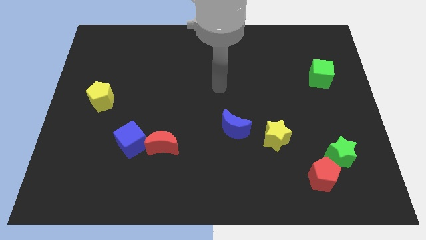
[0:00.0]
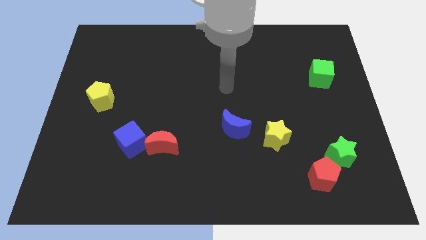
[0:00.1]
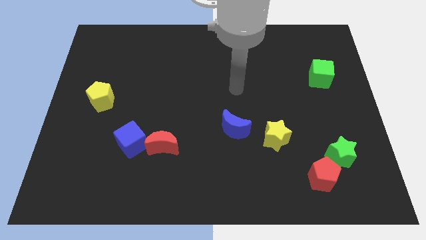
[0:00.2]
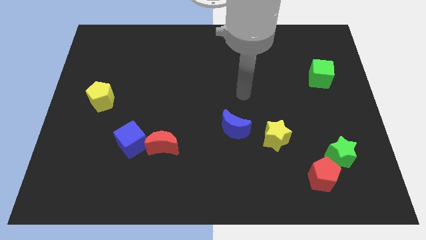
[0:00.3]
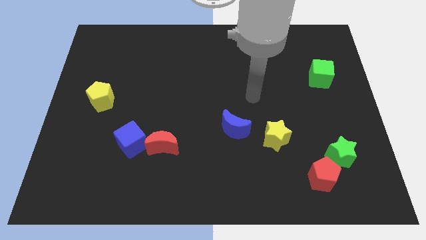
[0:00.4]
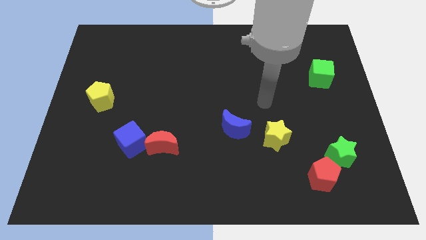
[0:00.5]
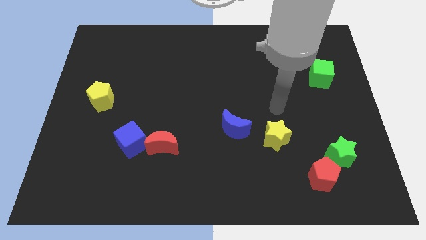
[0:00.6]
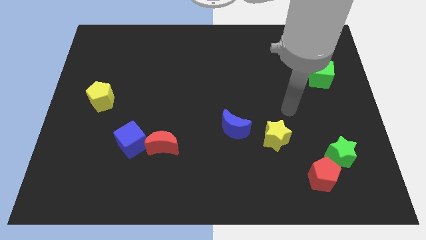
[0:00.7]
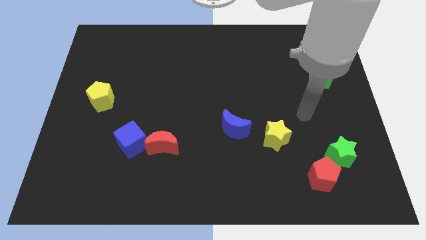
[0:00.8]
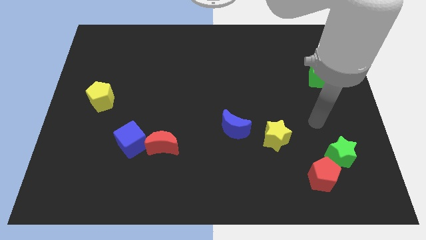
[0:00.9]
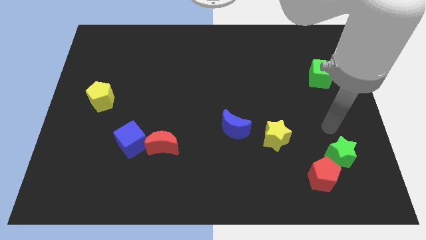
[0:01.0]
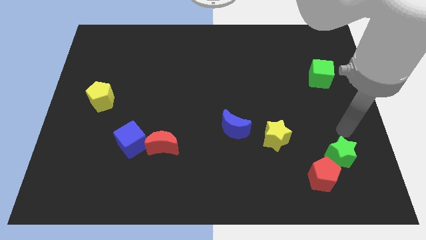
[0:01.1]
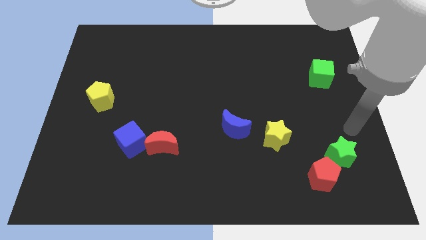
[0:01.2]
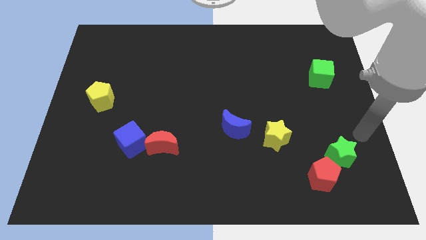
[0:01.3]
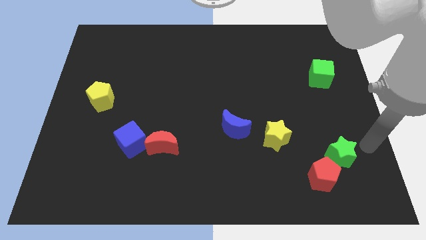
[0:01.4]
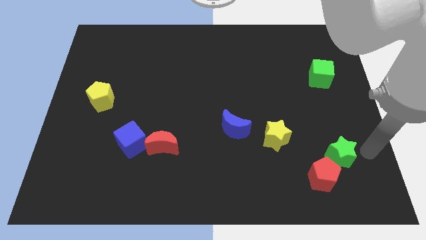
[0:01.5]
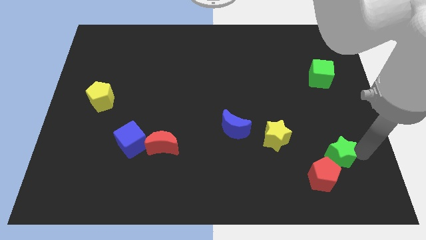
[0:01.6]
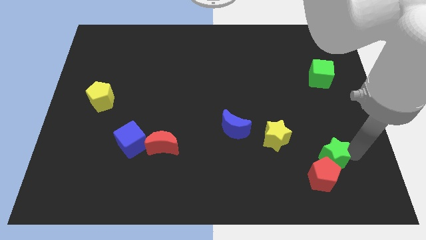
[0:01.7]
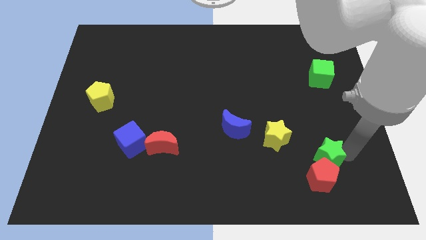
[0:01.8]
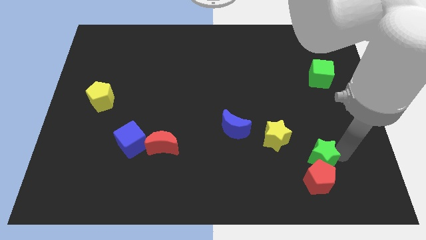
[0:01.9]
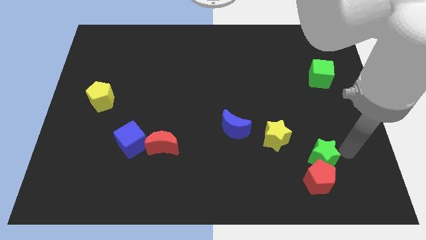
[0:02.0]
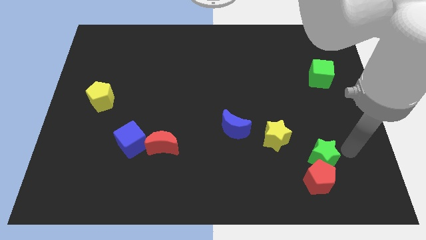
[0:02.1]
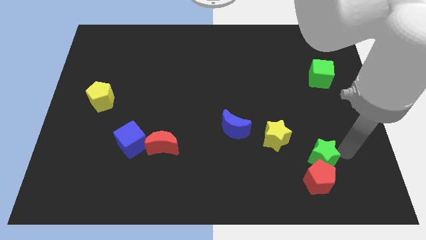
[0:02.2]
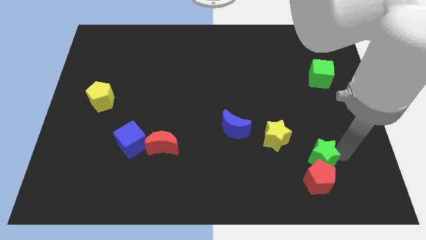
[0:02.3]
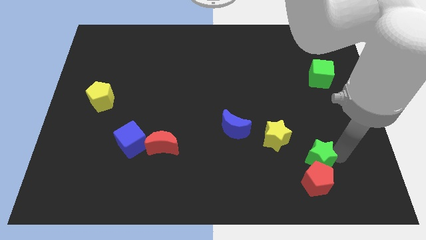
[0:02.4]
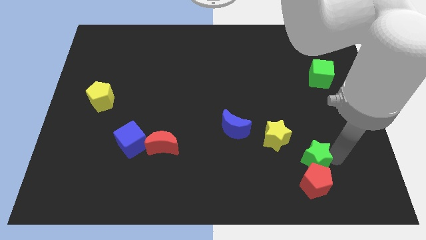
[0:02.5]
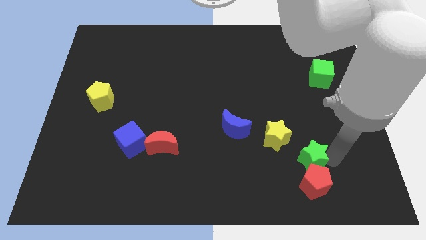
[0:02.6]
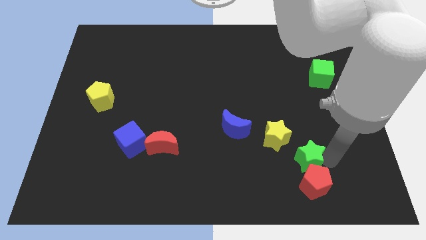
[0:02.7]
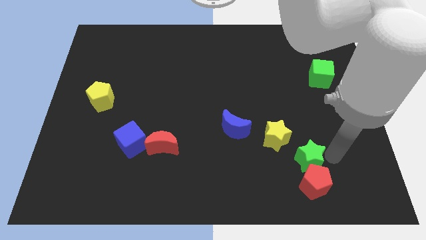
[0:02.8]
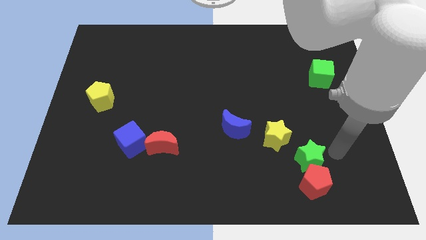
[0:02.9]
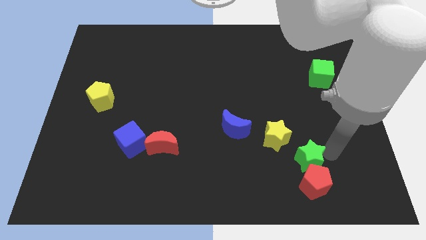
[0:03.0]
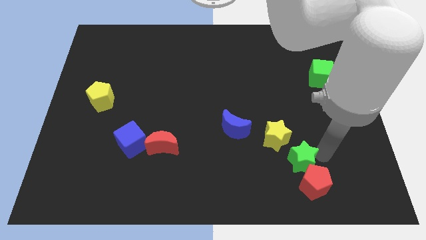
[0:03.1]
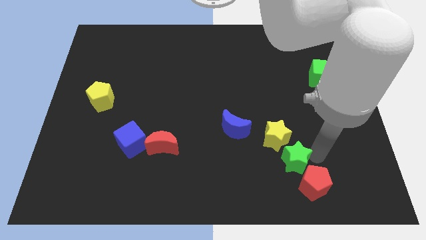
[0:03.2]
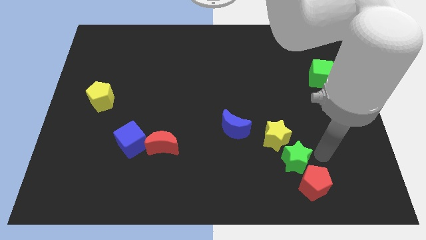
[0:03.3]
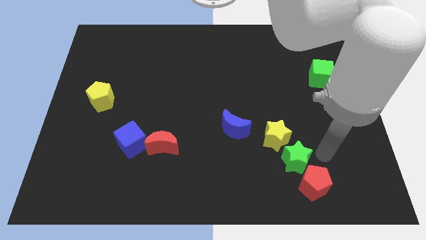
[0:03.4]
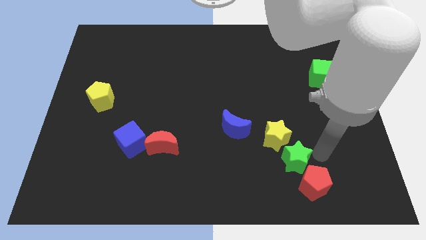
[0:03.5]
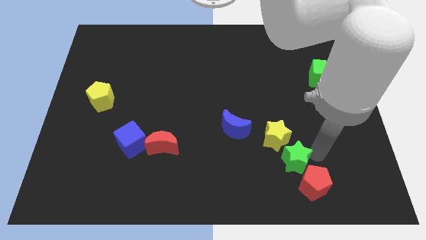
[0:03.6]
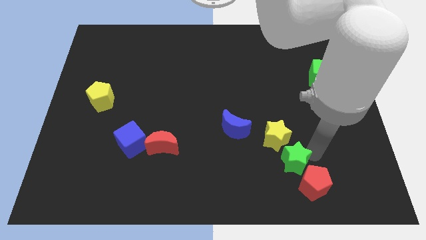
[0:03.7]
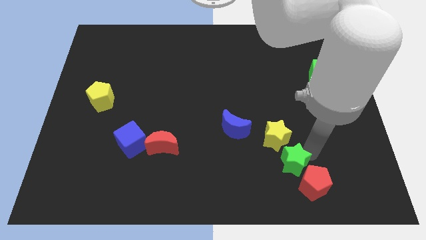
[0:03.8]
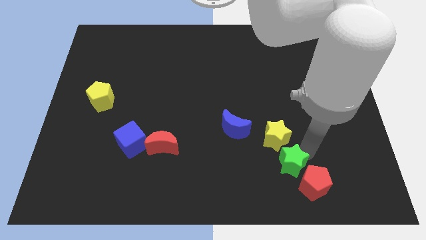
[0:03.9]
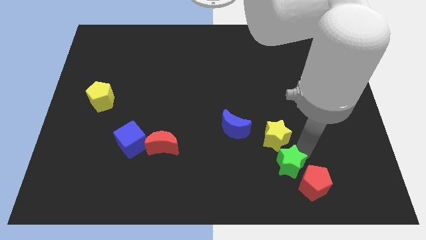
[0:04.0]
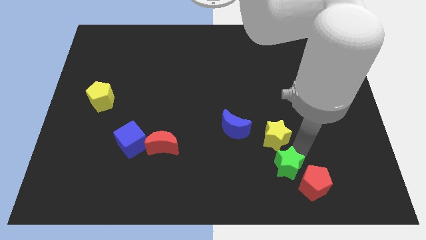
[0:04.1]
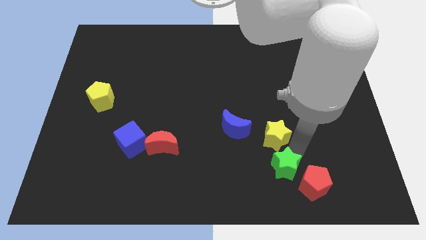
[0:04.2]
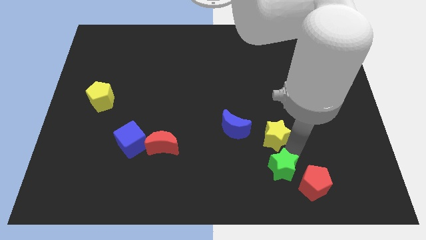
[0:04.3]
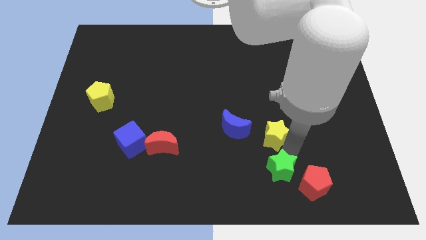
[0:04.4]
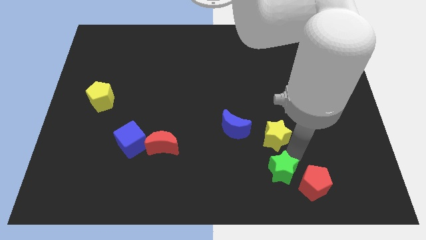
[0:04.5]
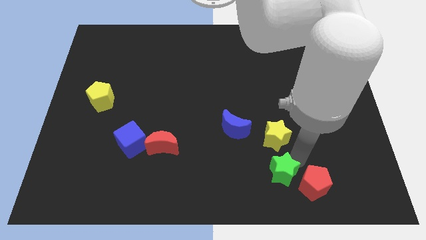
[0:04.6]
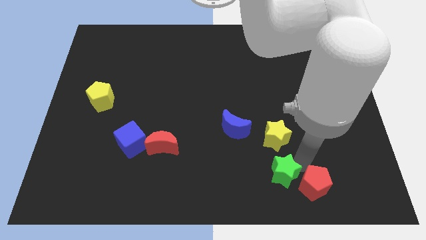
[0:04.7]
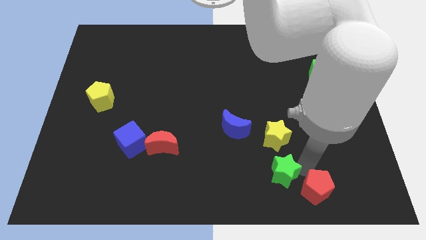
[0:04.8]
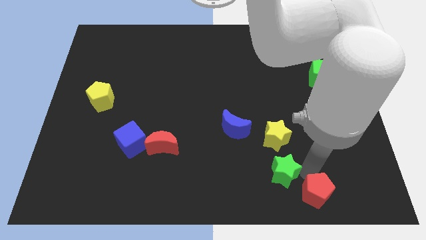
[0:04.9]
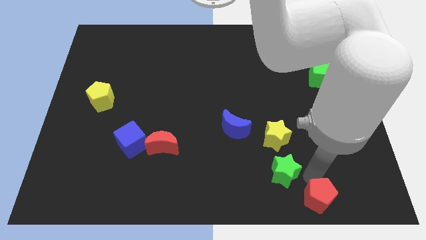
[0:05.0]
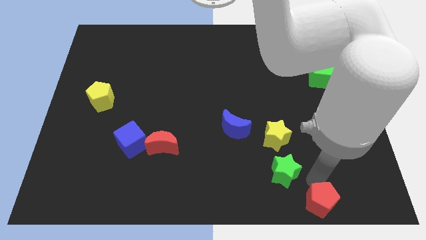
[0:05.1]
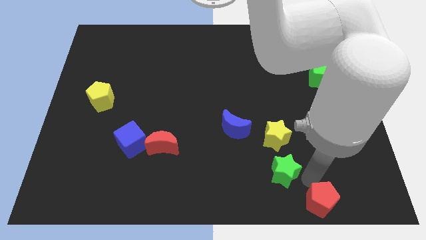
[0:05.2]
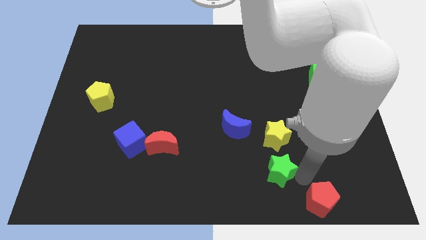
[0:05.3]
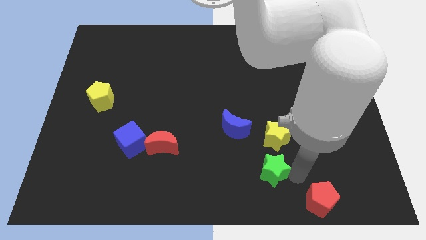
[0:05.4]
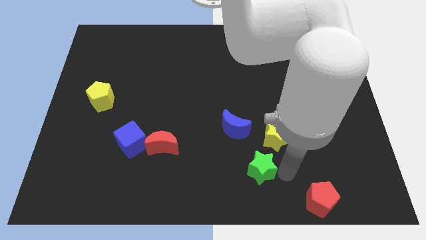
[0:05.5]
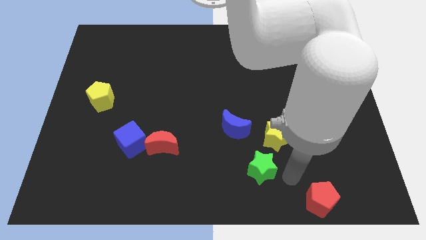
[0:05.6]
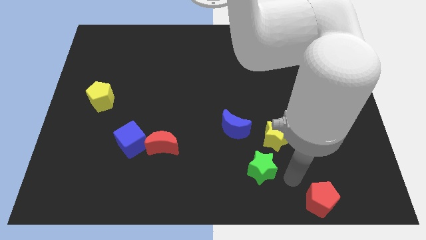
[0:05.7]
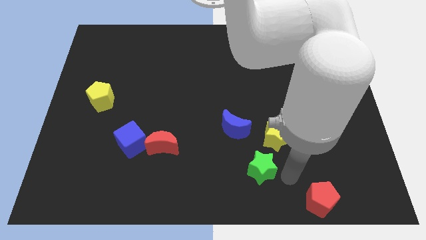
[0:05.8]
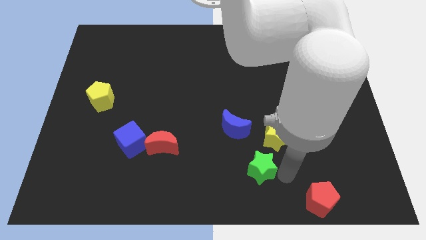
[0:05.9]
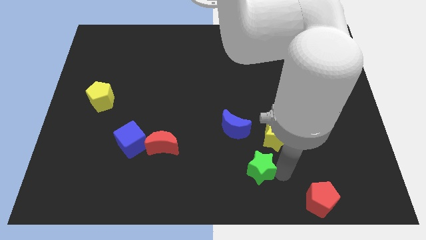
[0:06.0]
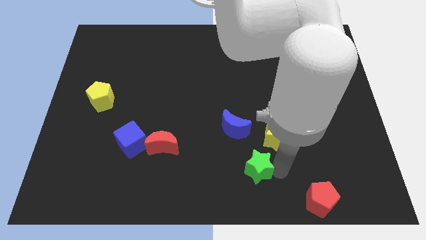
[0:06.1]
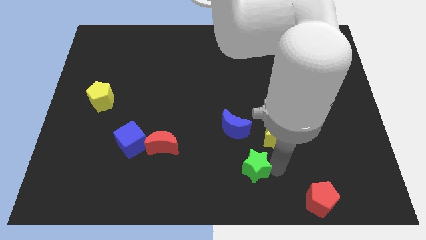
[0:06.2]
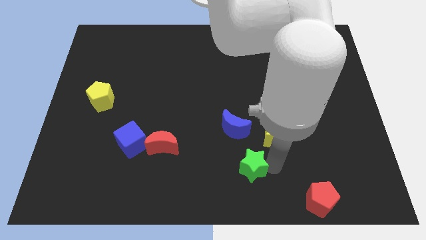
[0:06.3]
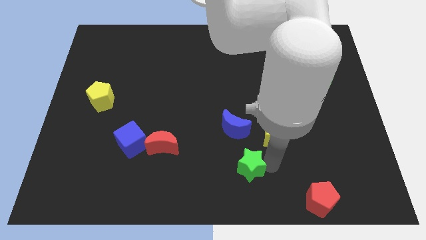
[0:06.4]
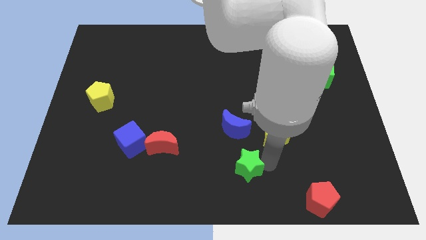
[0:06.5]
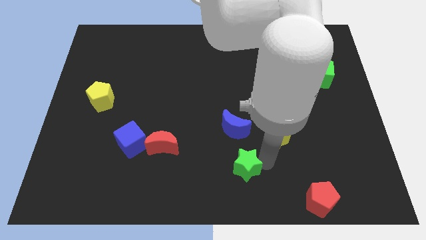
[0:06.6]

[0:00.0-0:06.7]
slide the green star to the left

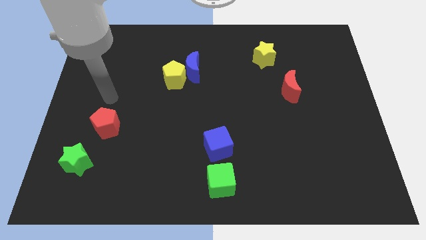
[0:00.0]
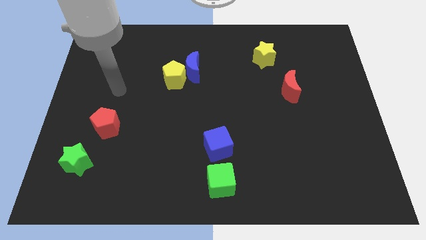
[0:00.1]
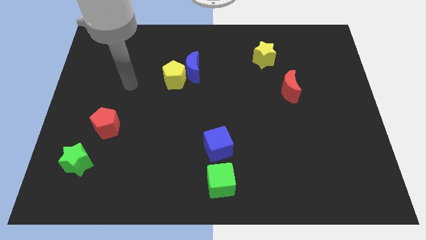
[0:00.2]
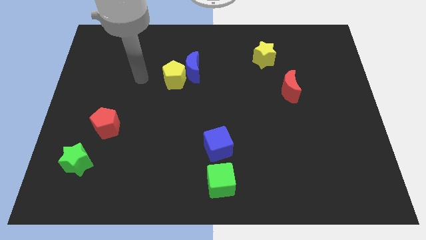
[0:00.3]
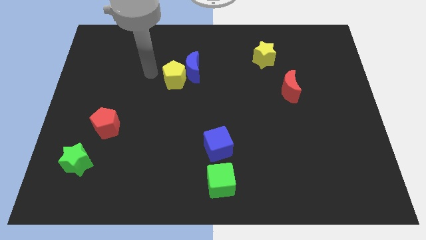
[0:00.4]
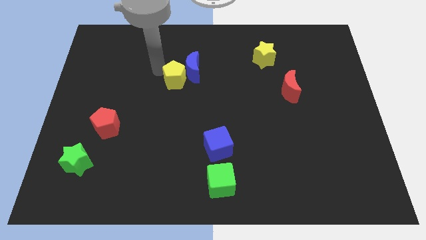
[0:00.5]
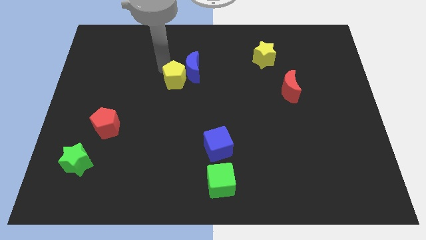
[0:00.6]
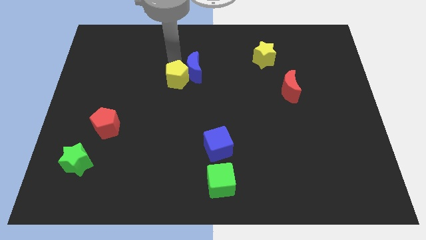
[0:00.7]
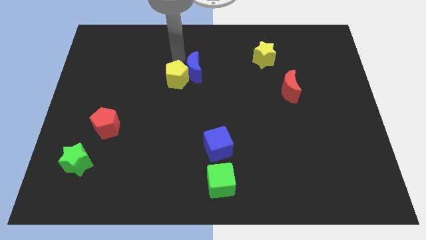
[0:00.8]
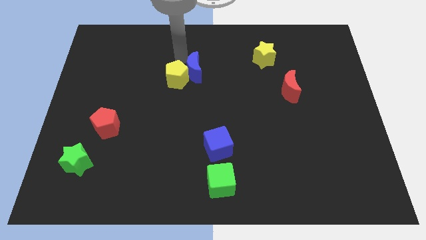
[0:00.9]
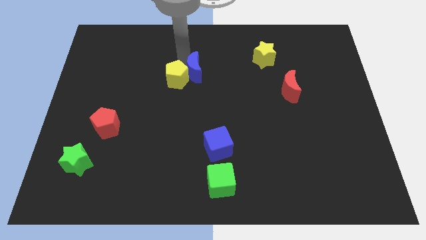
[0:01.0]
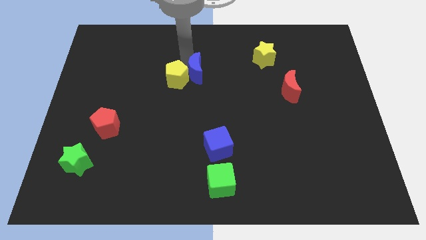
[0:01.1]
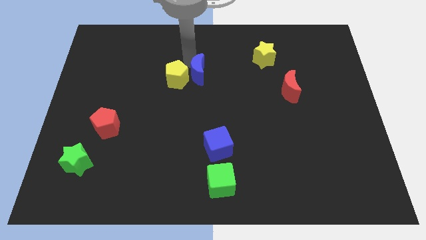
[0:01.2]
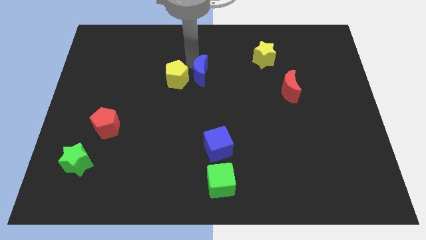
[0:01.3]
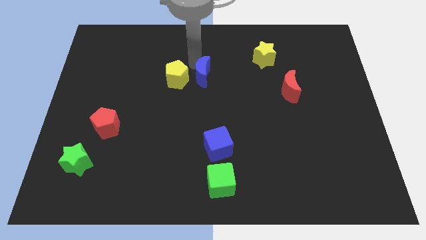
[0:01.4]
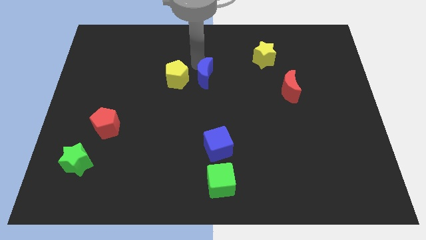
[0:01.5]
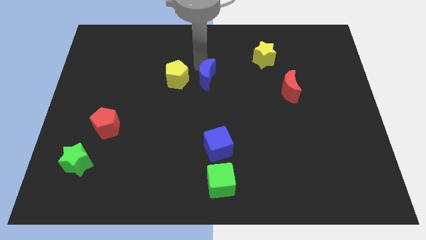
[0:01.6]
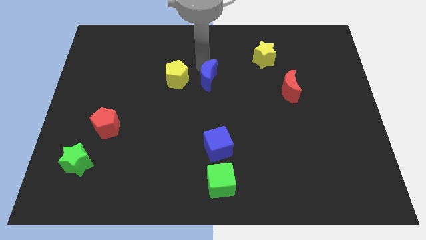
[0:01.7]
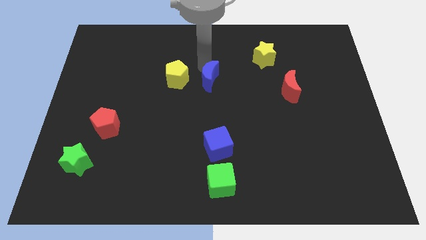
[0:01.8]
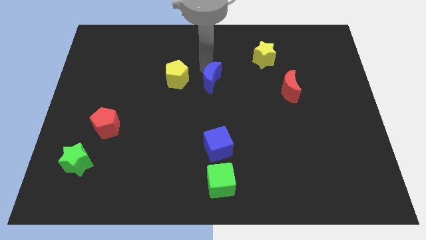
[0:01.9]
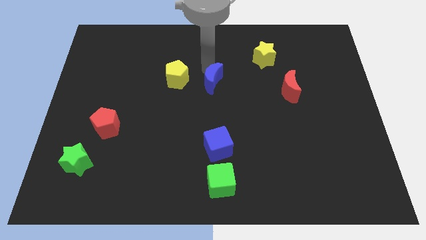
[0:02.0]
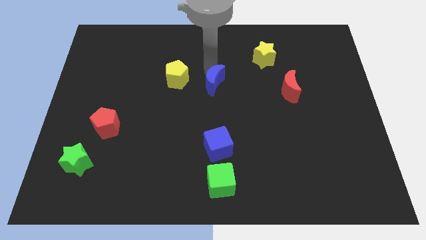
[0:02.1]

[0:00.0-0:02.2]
push the blue moon diagonally down and to the right slightly
